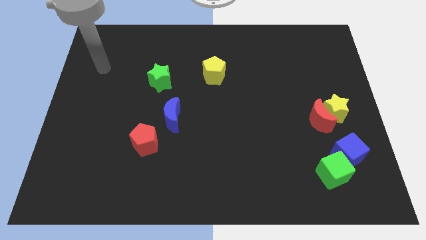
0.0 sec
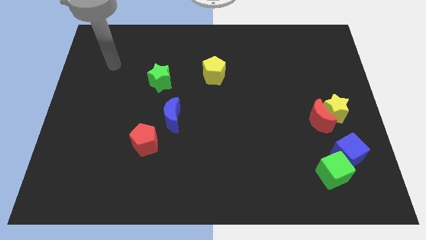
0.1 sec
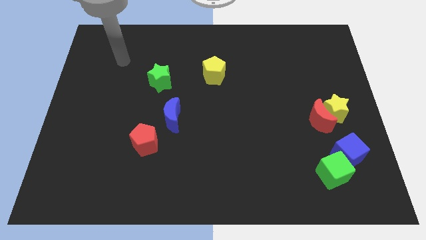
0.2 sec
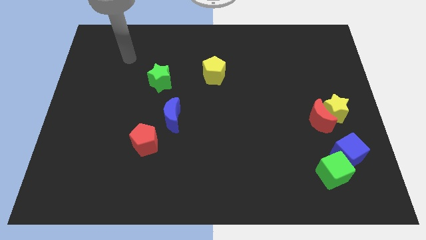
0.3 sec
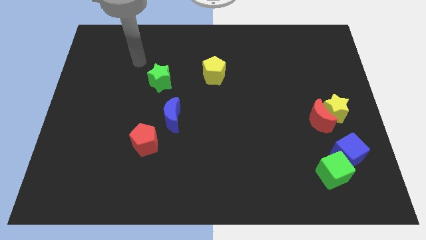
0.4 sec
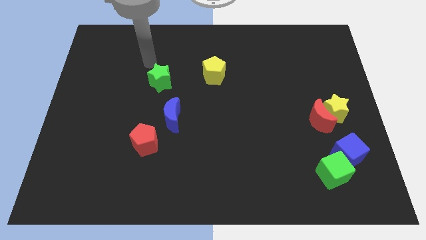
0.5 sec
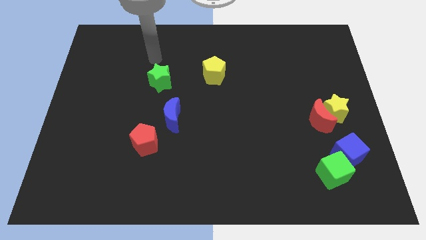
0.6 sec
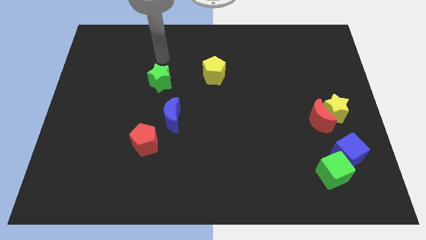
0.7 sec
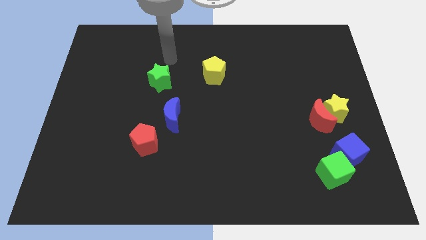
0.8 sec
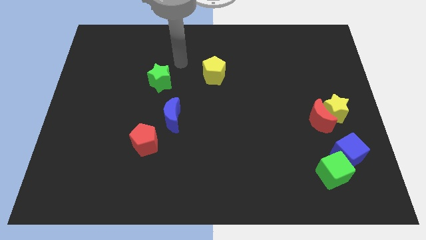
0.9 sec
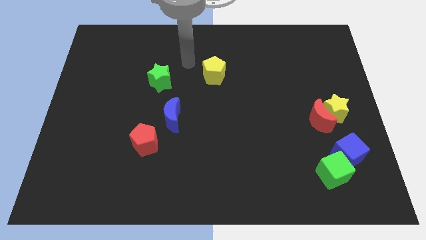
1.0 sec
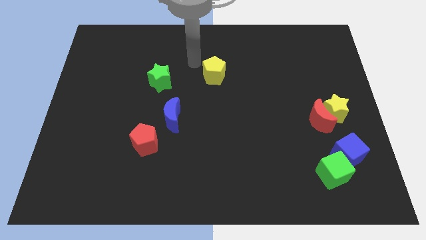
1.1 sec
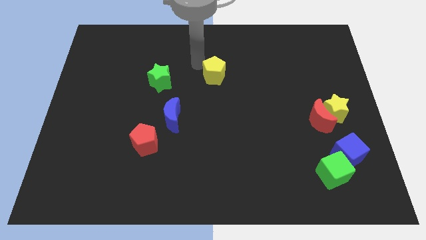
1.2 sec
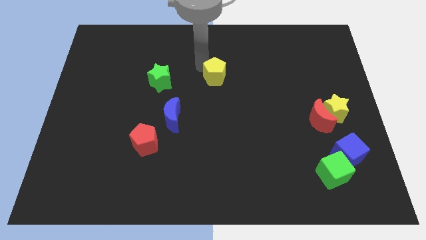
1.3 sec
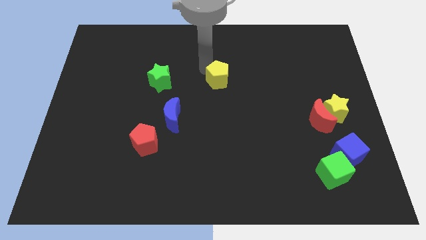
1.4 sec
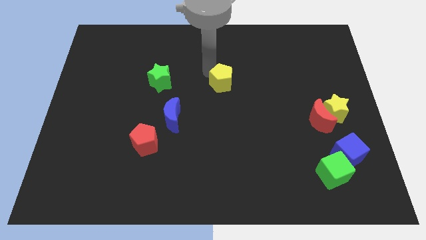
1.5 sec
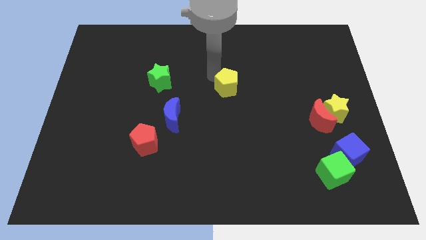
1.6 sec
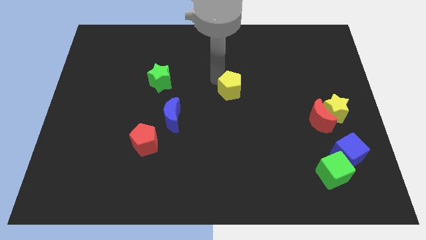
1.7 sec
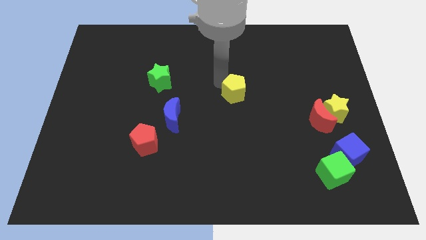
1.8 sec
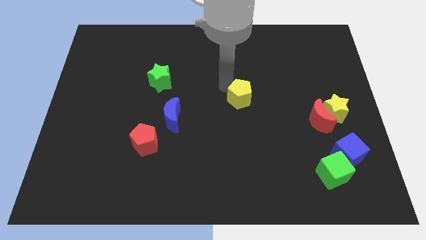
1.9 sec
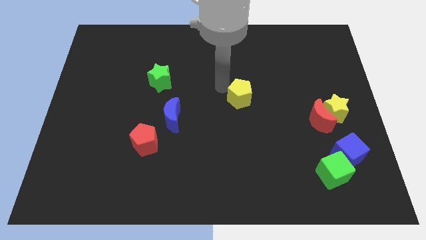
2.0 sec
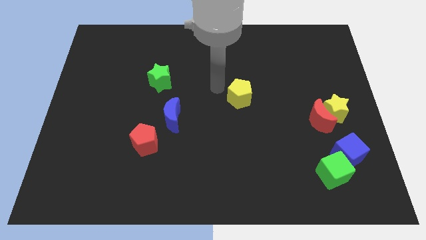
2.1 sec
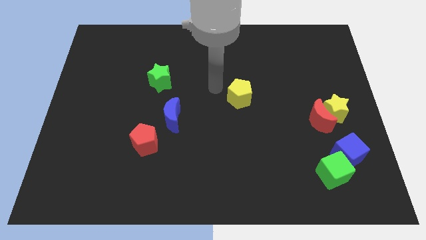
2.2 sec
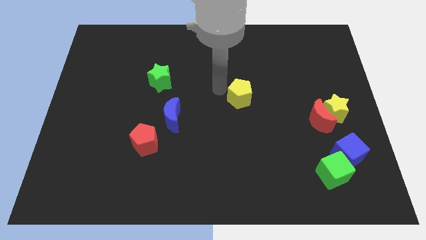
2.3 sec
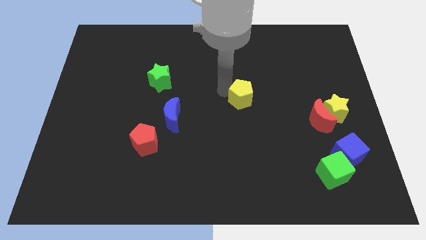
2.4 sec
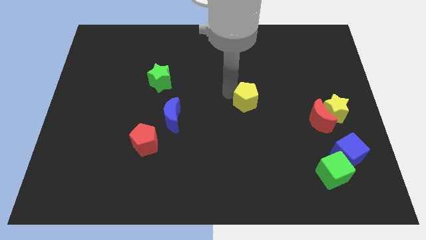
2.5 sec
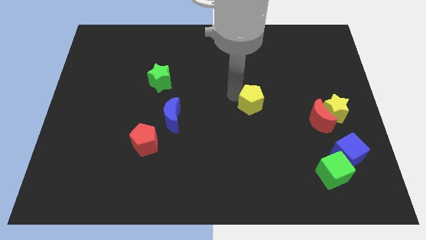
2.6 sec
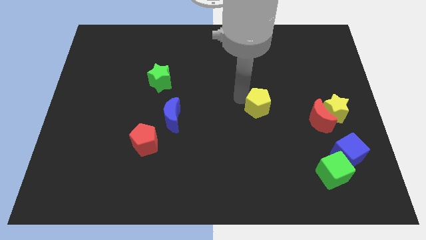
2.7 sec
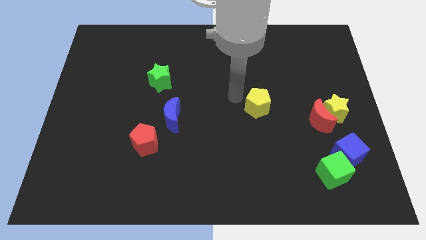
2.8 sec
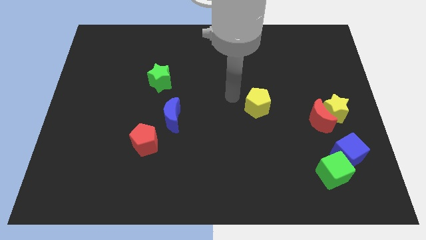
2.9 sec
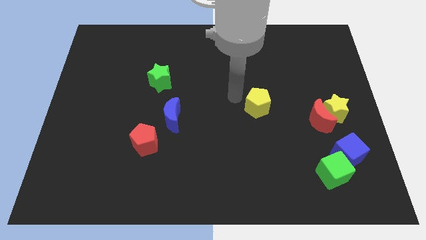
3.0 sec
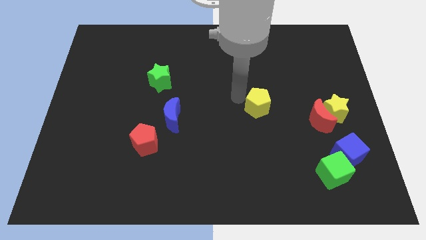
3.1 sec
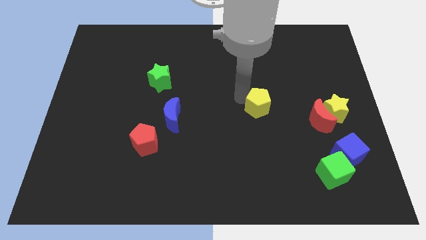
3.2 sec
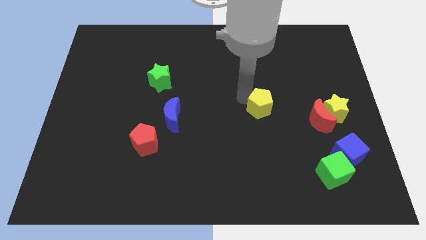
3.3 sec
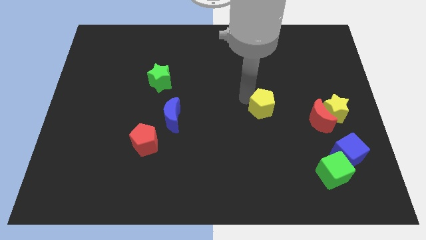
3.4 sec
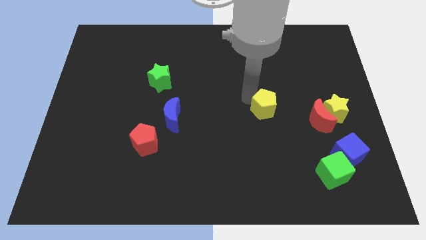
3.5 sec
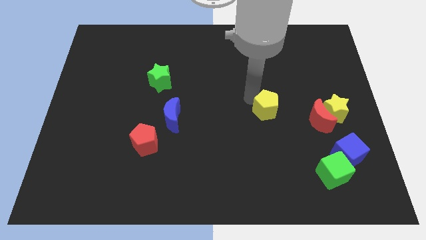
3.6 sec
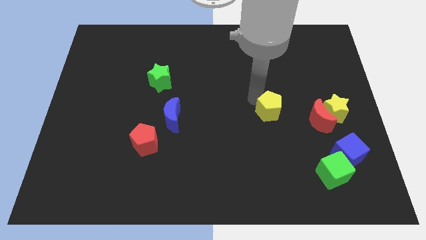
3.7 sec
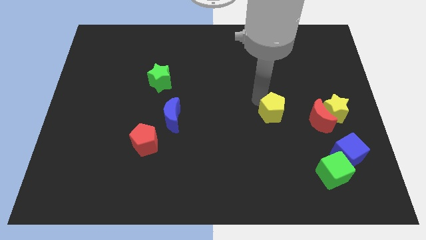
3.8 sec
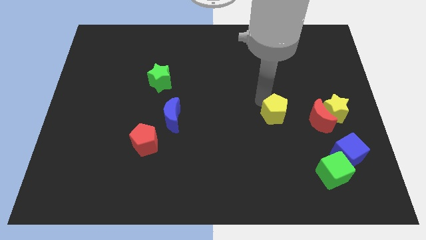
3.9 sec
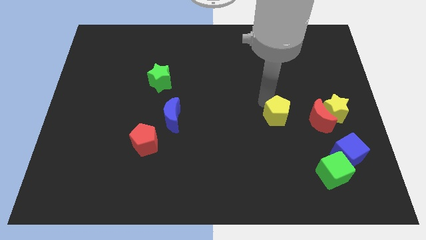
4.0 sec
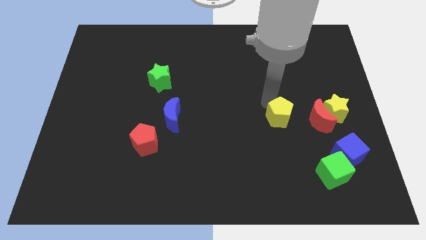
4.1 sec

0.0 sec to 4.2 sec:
push the yellow pentagon diagonally down and right

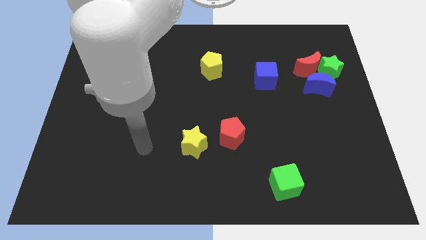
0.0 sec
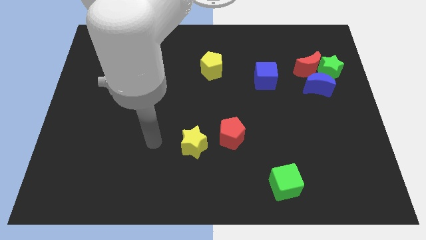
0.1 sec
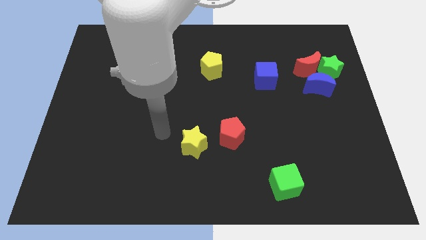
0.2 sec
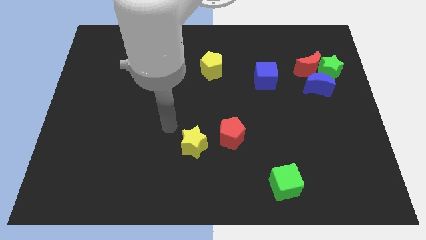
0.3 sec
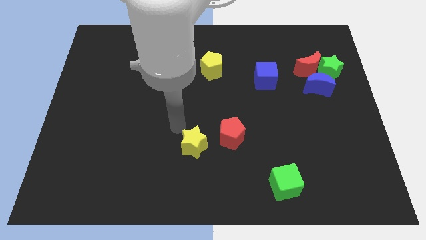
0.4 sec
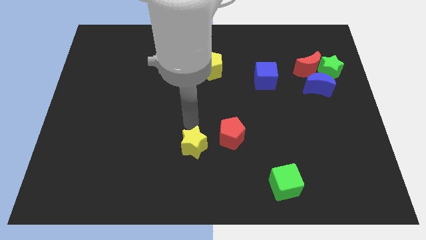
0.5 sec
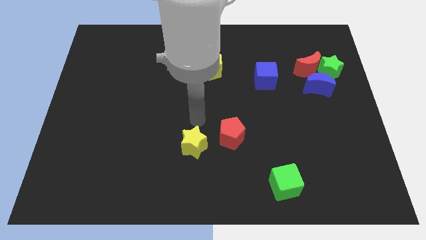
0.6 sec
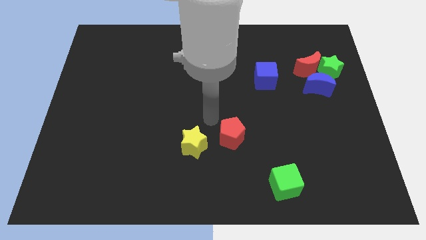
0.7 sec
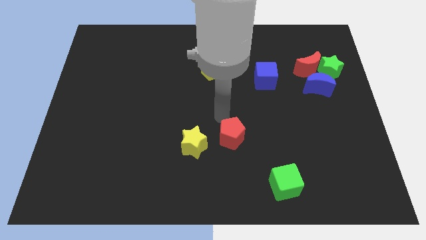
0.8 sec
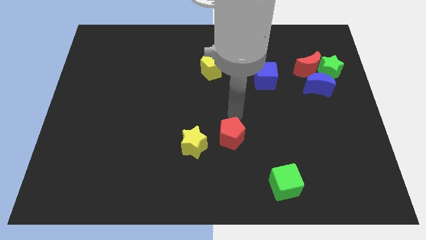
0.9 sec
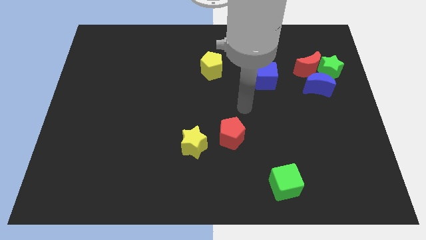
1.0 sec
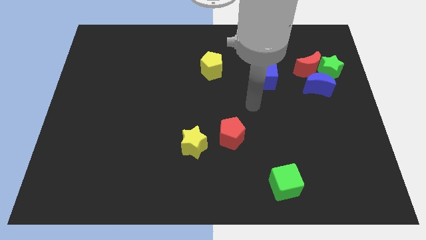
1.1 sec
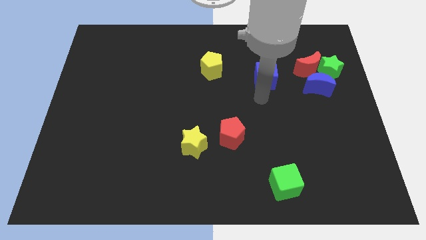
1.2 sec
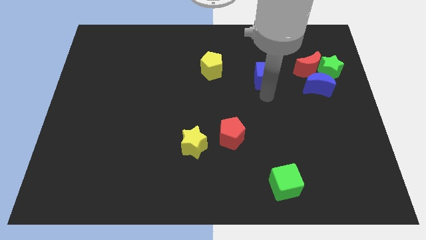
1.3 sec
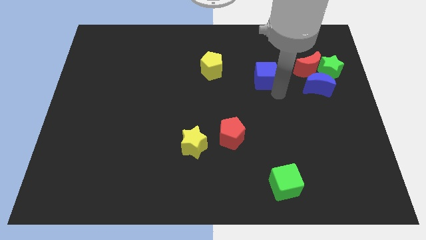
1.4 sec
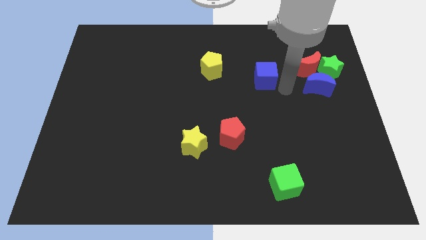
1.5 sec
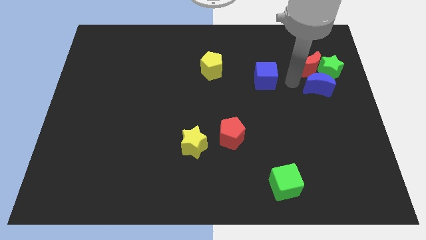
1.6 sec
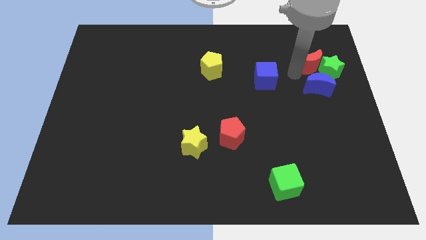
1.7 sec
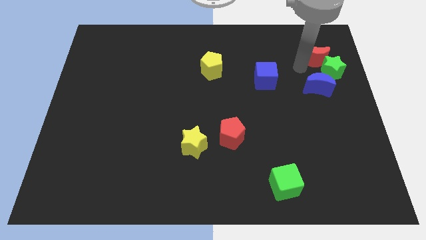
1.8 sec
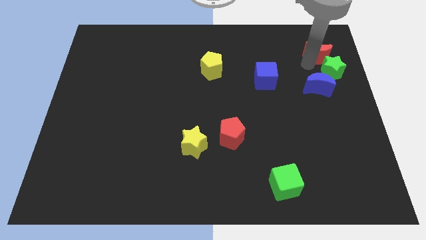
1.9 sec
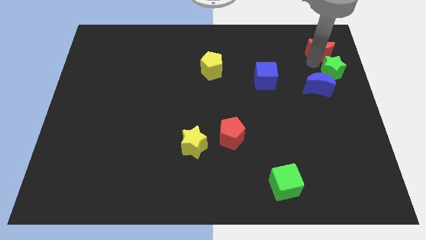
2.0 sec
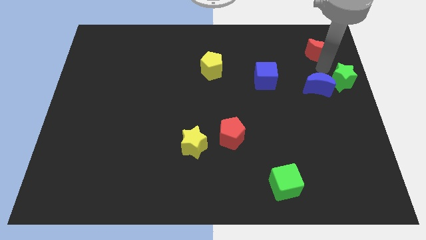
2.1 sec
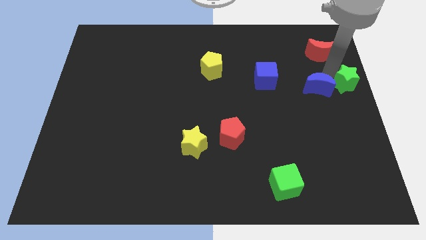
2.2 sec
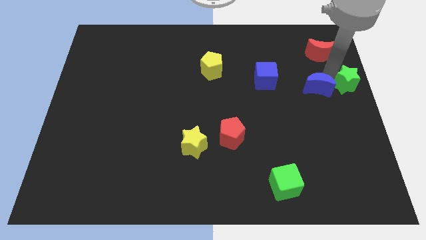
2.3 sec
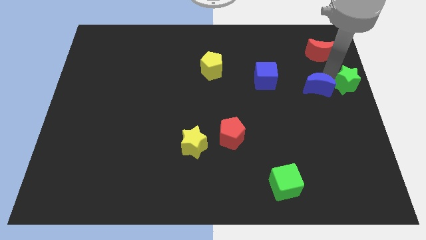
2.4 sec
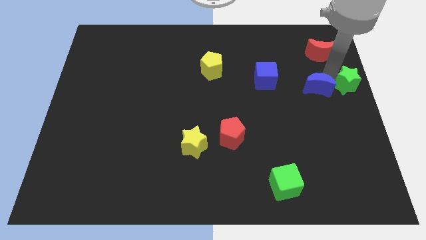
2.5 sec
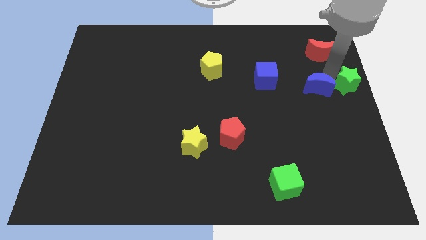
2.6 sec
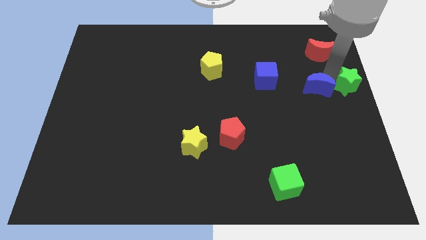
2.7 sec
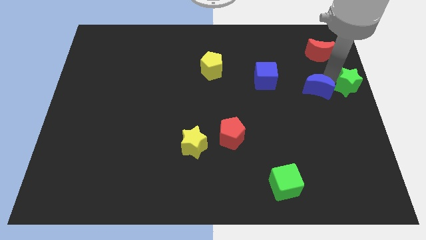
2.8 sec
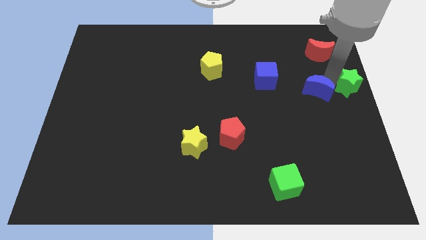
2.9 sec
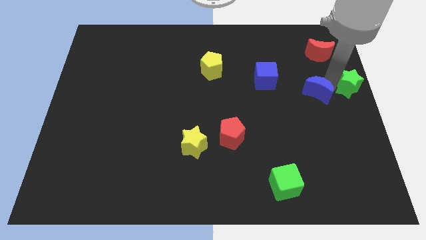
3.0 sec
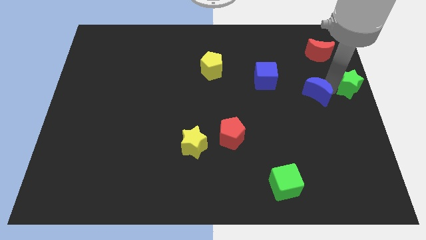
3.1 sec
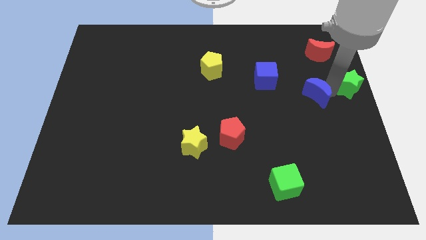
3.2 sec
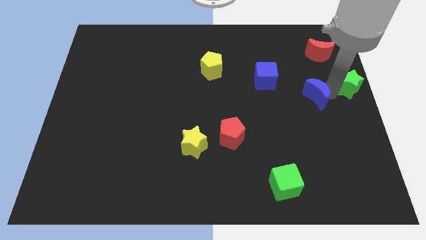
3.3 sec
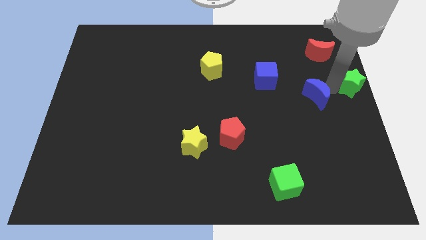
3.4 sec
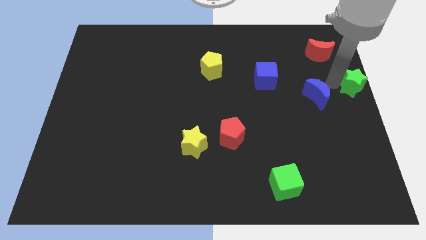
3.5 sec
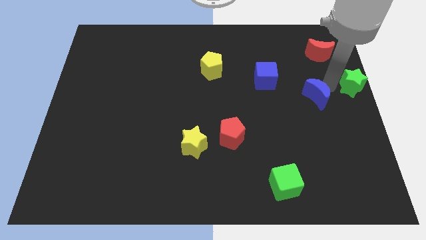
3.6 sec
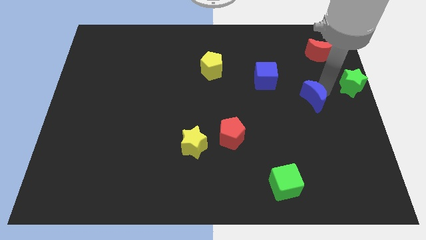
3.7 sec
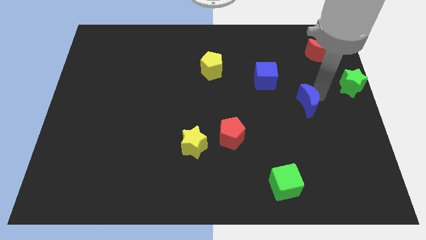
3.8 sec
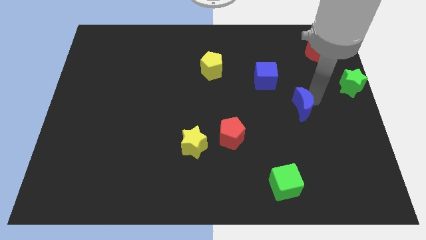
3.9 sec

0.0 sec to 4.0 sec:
push the blue moon a little bit diagonally downwards and left
